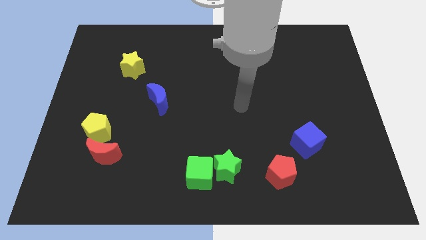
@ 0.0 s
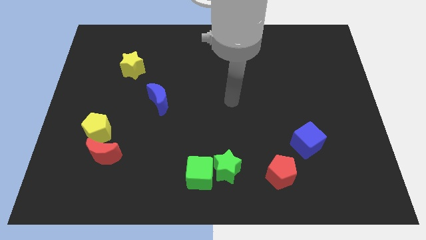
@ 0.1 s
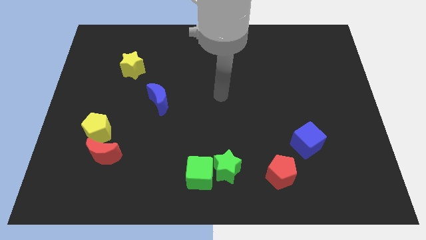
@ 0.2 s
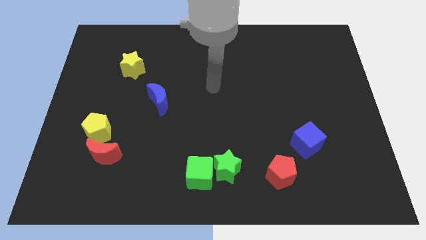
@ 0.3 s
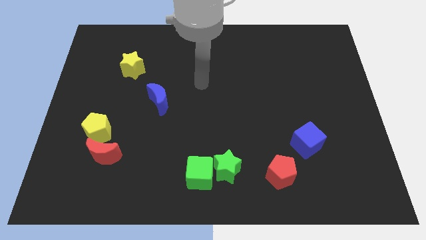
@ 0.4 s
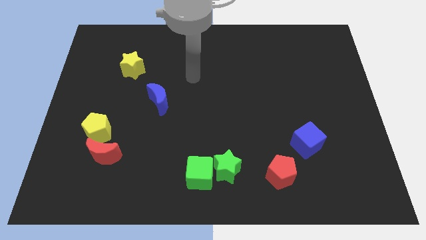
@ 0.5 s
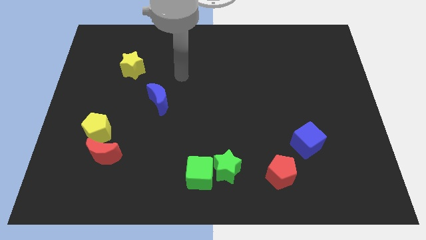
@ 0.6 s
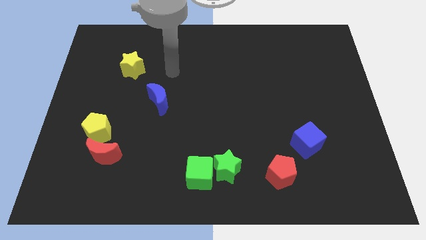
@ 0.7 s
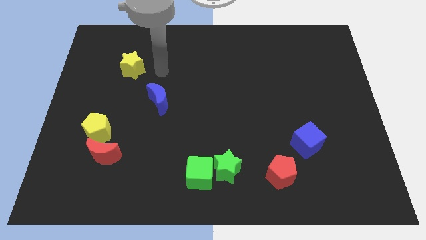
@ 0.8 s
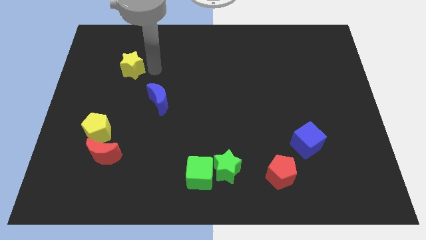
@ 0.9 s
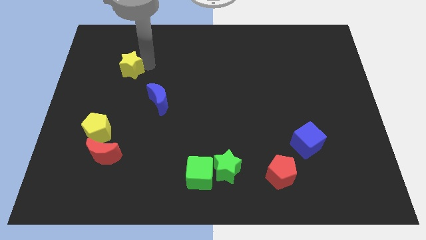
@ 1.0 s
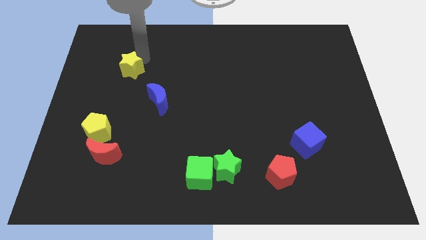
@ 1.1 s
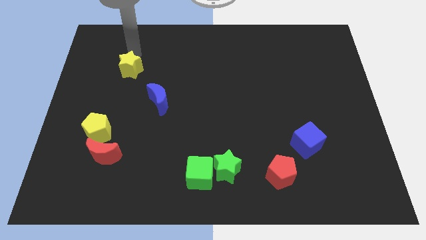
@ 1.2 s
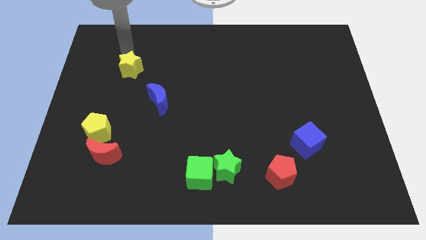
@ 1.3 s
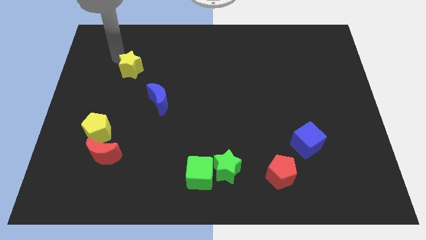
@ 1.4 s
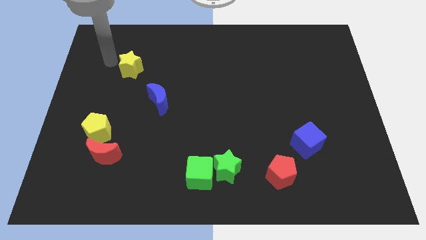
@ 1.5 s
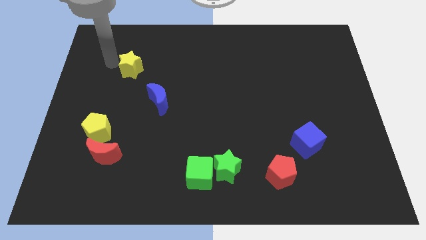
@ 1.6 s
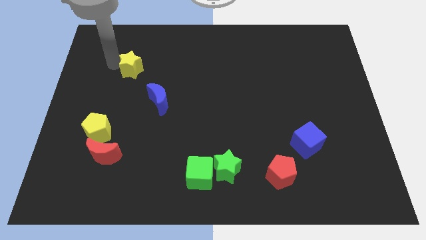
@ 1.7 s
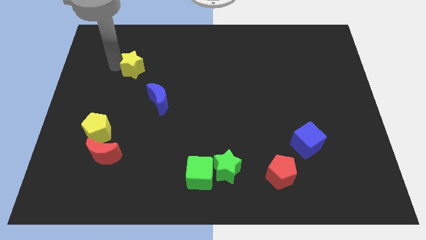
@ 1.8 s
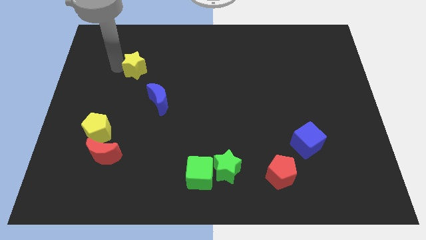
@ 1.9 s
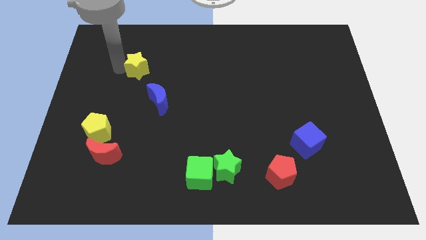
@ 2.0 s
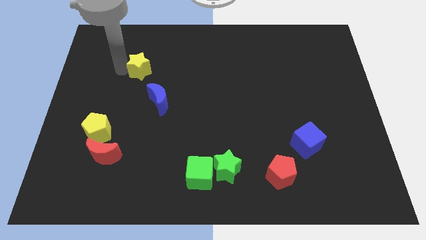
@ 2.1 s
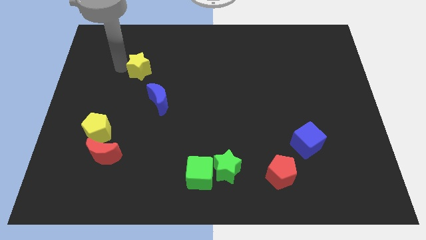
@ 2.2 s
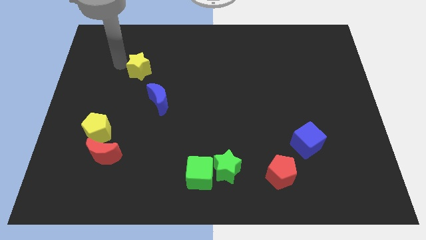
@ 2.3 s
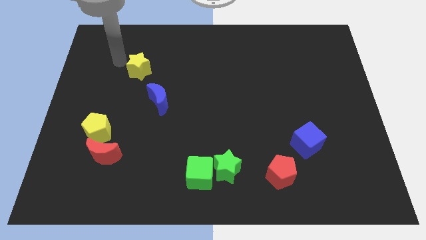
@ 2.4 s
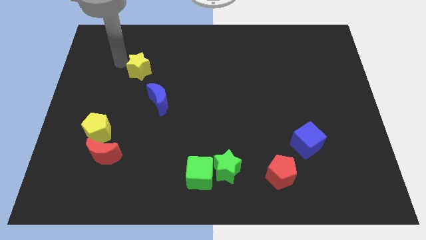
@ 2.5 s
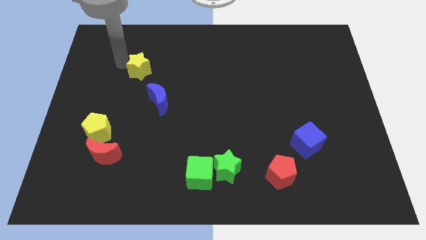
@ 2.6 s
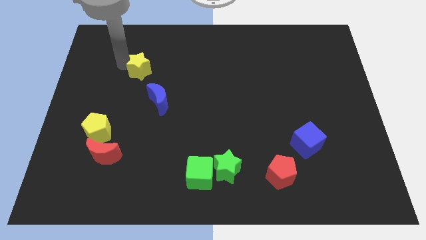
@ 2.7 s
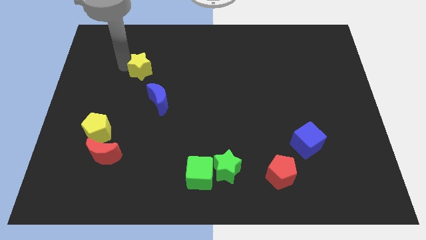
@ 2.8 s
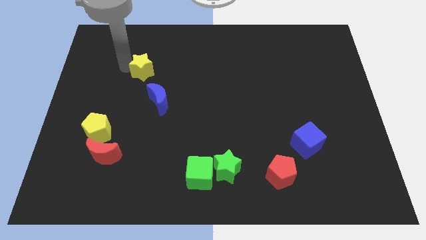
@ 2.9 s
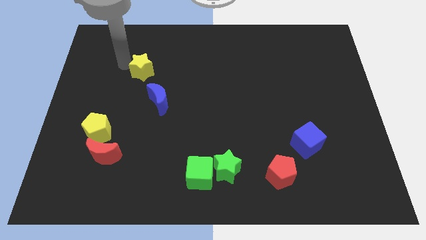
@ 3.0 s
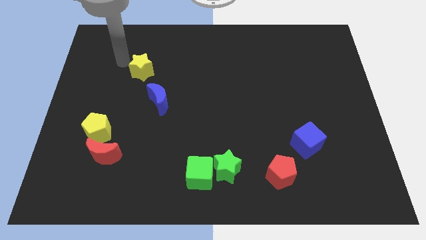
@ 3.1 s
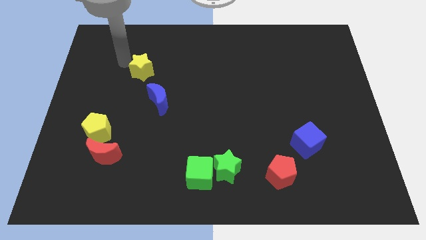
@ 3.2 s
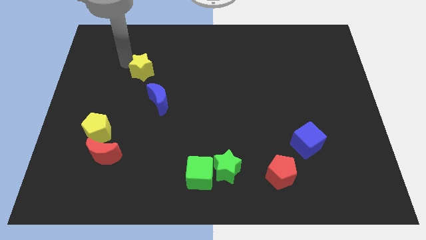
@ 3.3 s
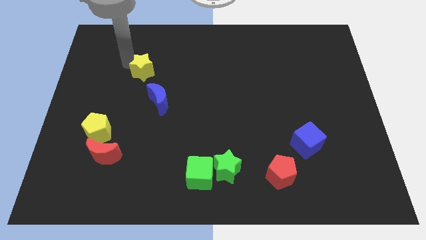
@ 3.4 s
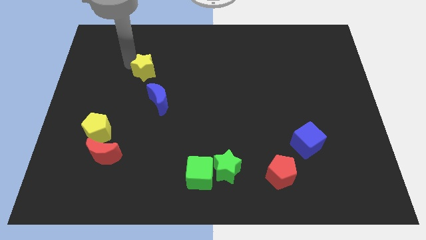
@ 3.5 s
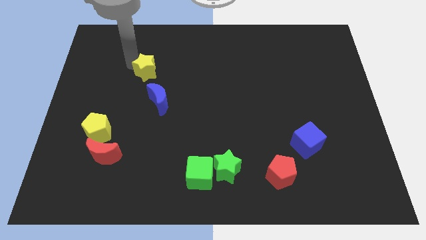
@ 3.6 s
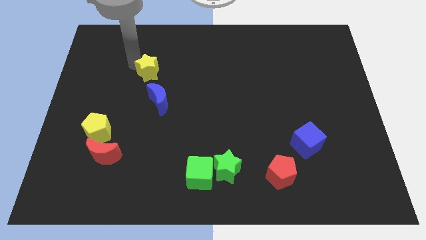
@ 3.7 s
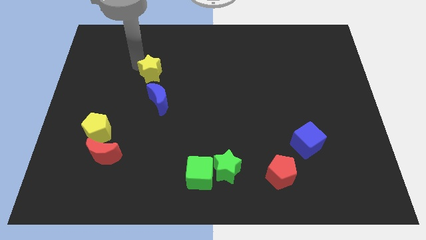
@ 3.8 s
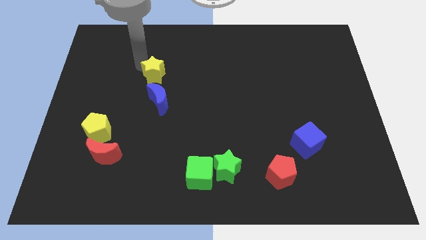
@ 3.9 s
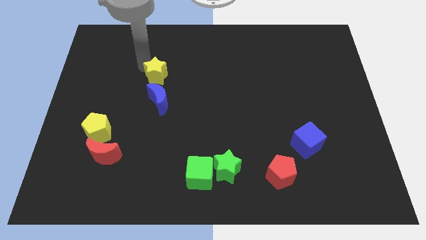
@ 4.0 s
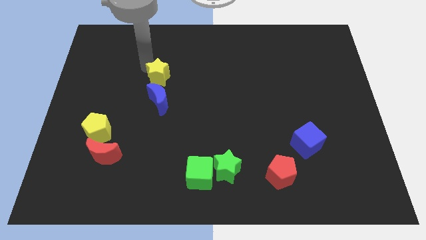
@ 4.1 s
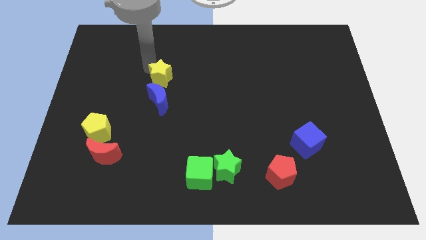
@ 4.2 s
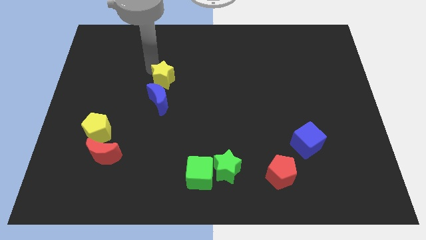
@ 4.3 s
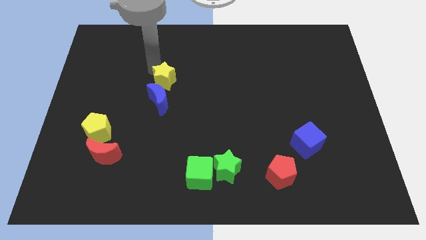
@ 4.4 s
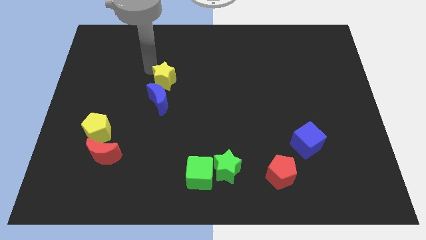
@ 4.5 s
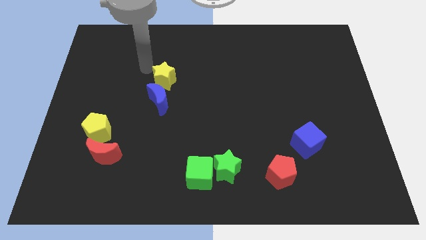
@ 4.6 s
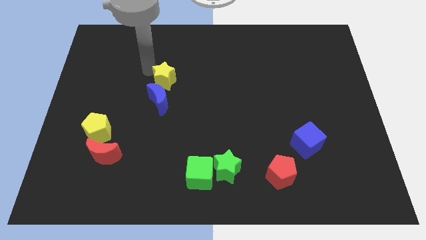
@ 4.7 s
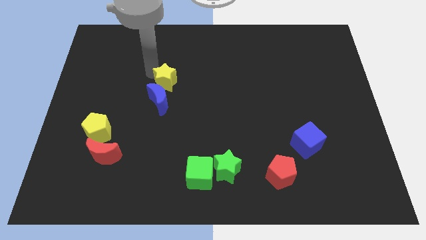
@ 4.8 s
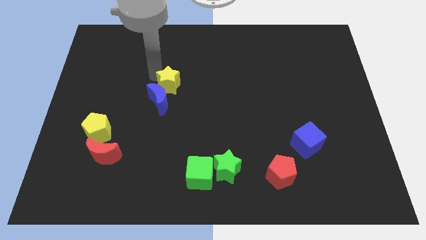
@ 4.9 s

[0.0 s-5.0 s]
move the yellow star to the middle of the board

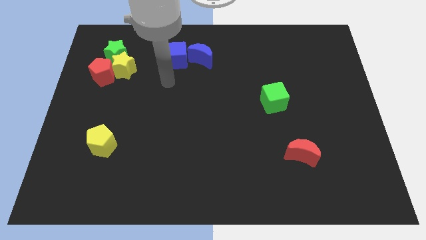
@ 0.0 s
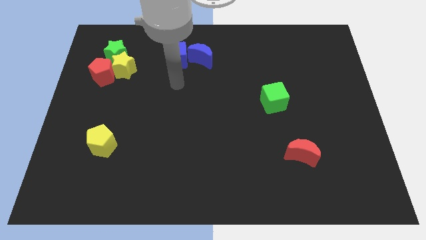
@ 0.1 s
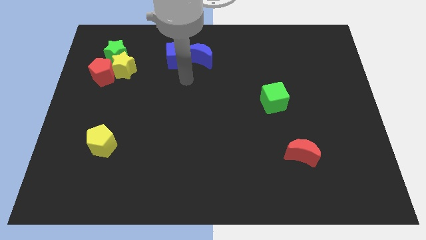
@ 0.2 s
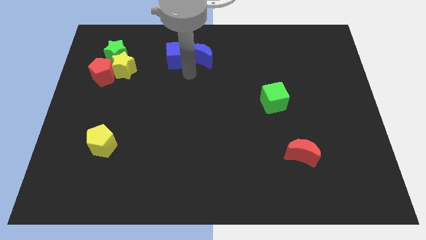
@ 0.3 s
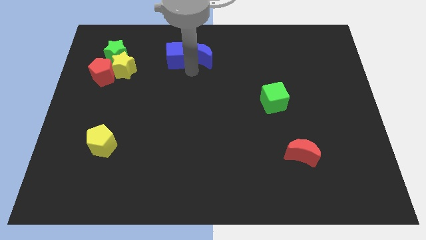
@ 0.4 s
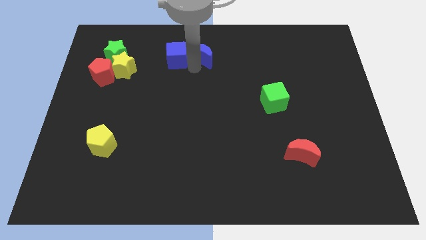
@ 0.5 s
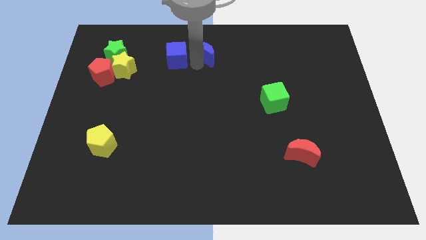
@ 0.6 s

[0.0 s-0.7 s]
put the blue moon to the towards your base
